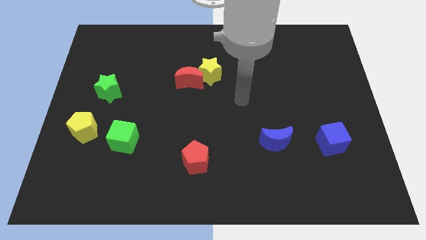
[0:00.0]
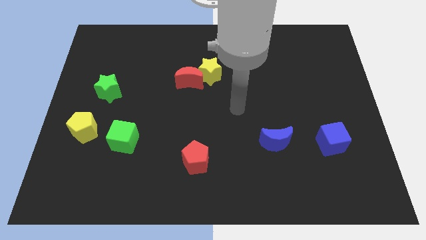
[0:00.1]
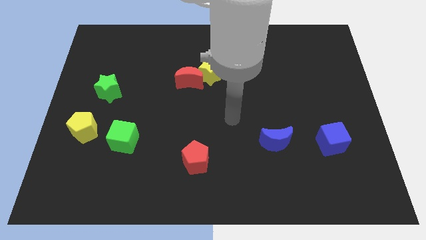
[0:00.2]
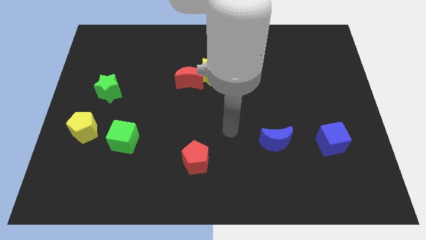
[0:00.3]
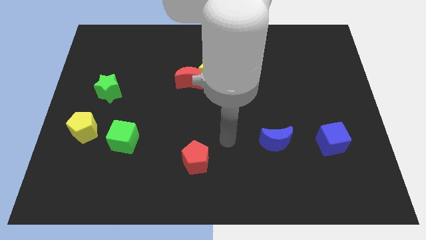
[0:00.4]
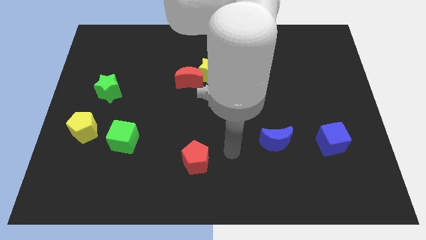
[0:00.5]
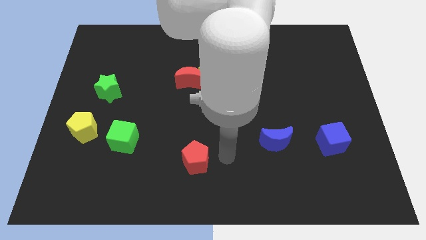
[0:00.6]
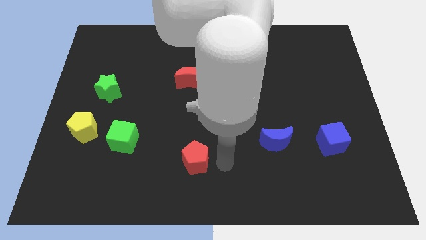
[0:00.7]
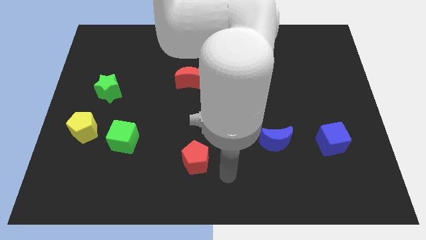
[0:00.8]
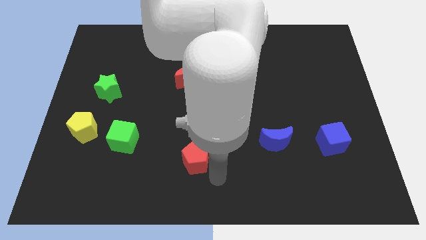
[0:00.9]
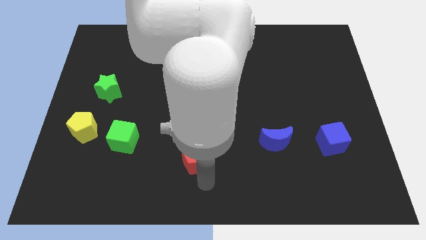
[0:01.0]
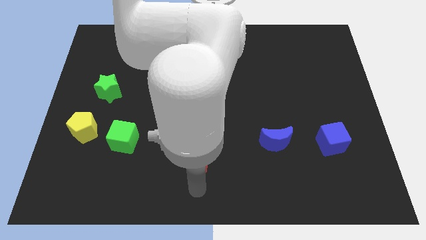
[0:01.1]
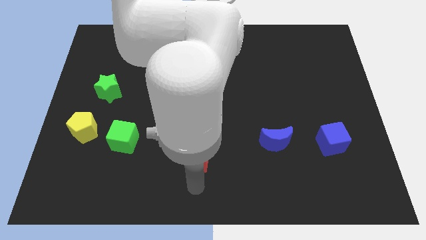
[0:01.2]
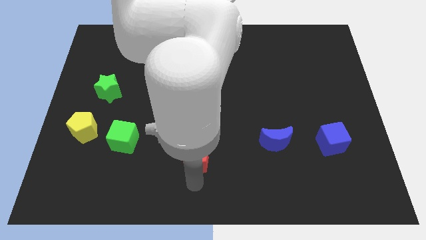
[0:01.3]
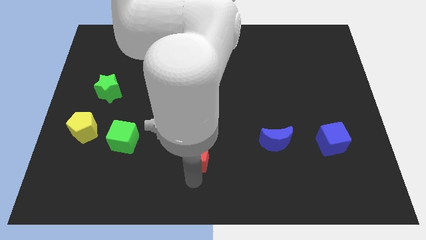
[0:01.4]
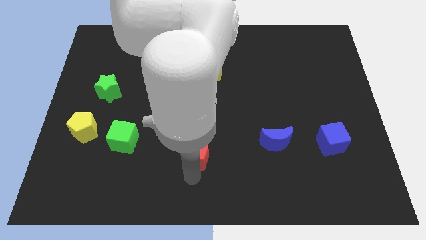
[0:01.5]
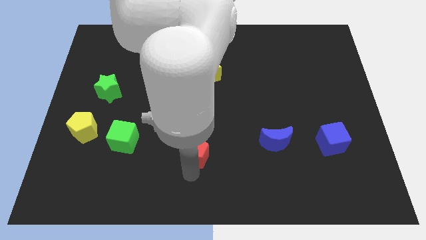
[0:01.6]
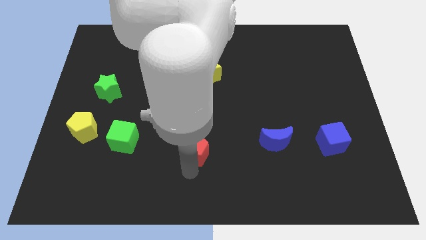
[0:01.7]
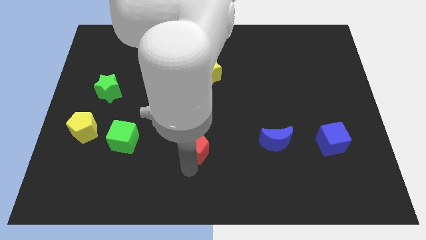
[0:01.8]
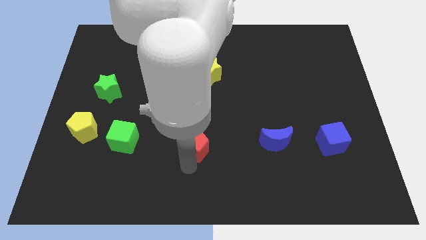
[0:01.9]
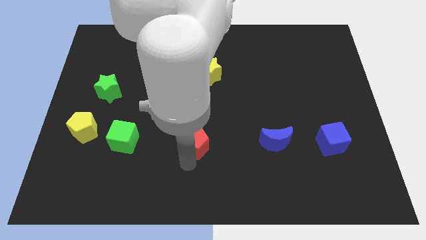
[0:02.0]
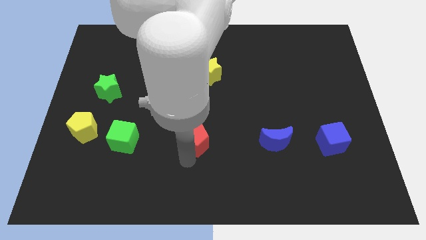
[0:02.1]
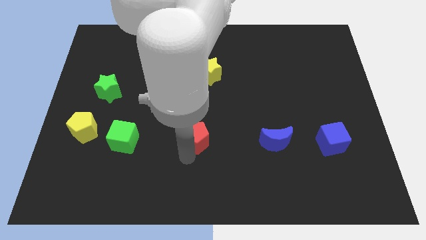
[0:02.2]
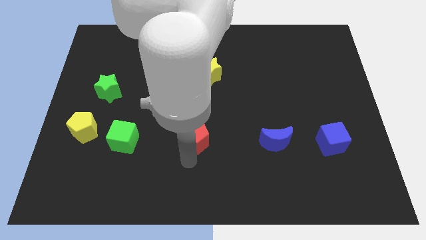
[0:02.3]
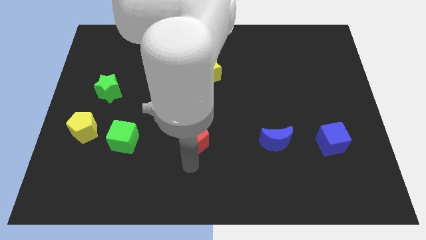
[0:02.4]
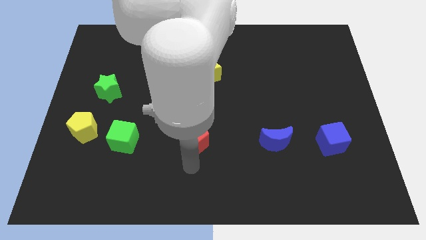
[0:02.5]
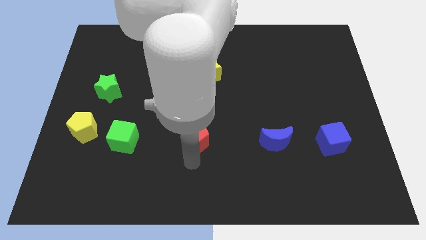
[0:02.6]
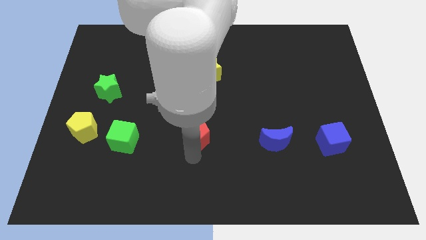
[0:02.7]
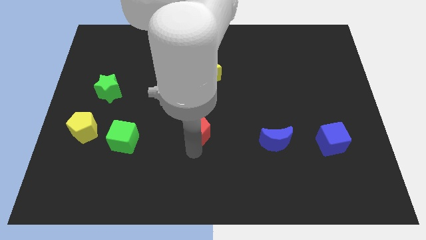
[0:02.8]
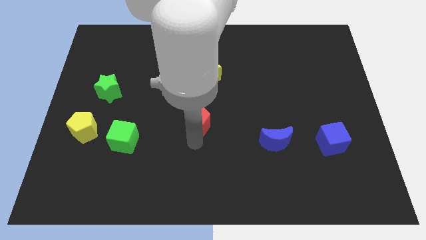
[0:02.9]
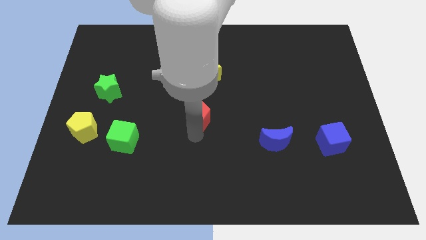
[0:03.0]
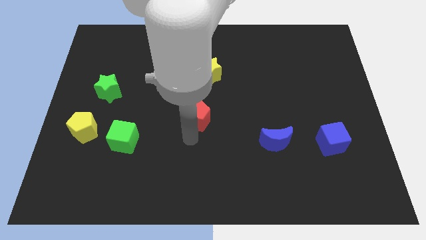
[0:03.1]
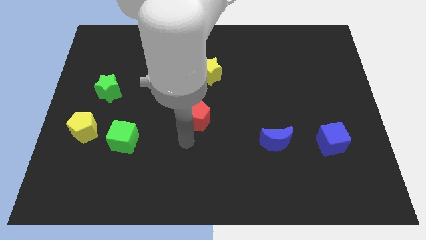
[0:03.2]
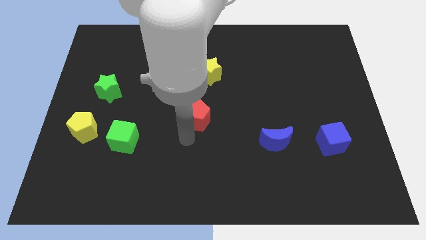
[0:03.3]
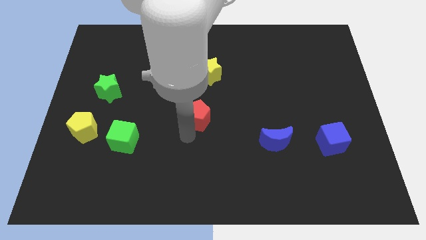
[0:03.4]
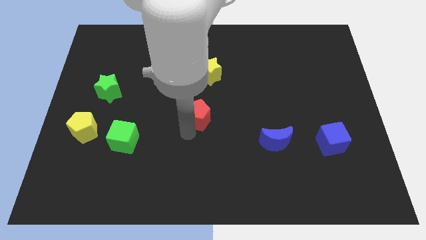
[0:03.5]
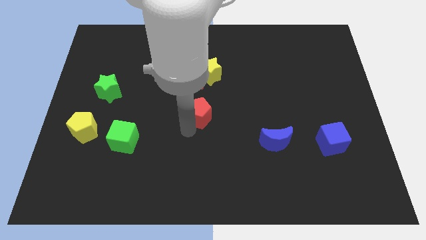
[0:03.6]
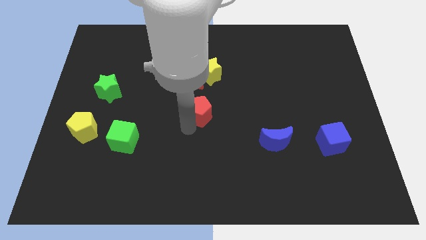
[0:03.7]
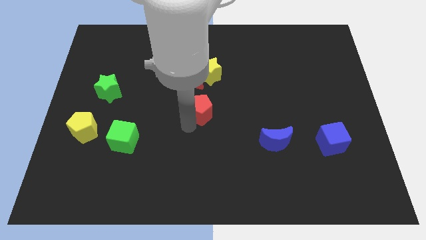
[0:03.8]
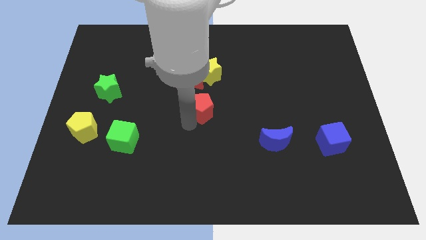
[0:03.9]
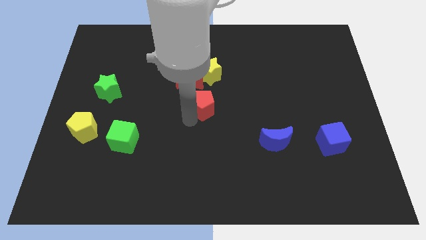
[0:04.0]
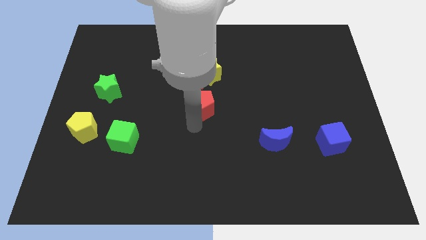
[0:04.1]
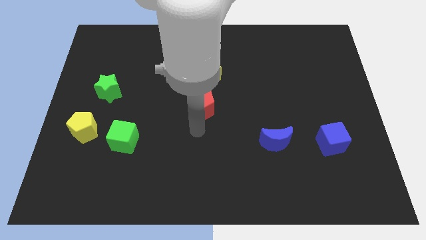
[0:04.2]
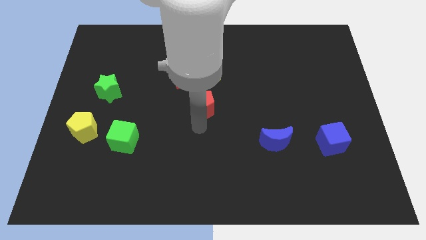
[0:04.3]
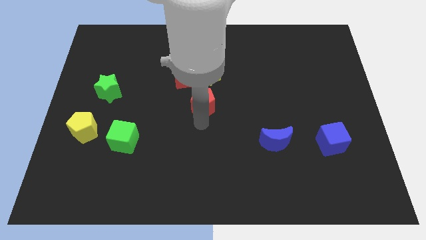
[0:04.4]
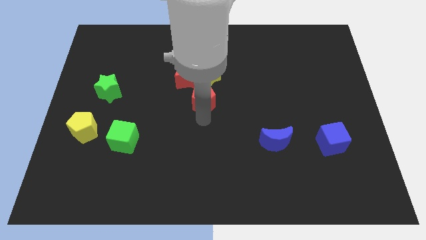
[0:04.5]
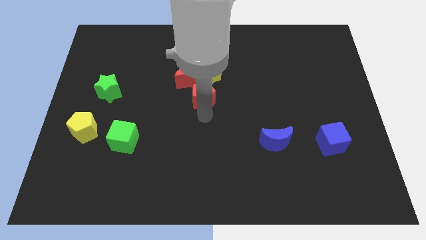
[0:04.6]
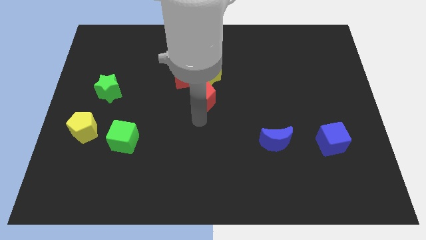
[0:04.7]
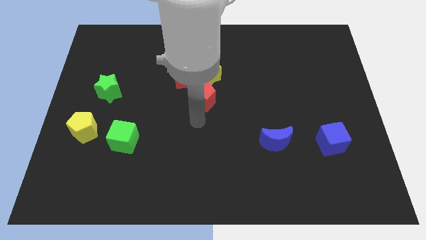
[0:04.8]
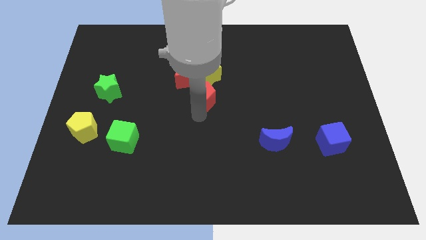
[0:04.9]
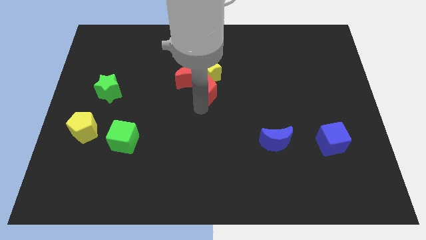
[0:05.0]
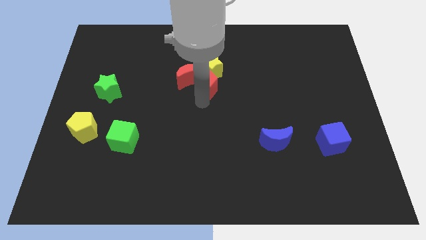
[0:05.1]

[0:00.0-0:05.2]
push the red pentagon next to the yellow star

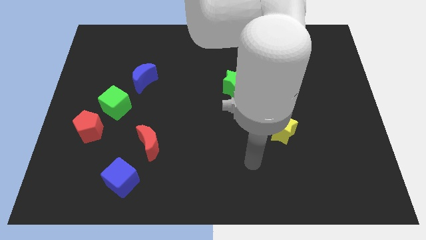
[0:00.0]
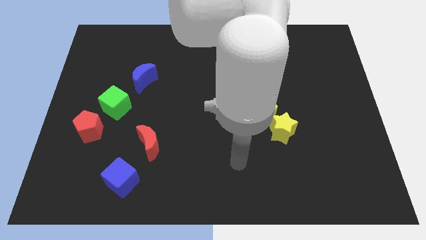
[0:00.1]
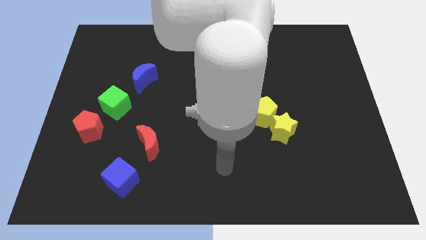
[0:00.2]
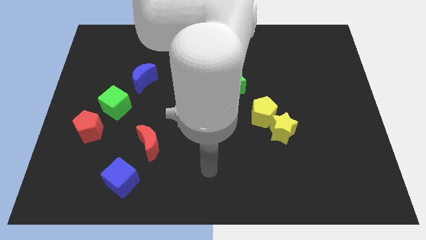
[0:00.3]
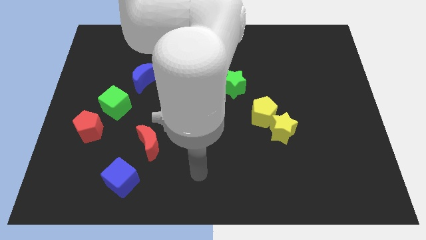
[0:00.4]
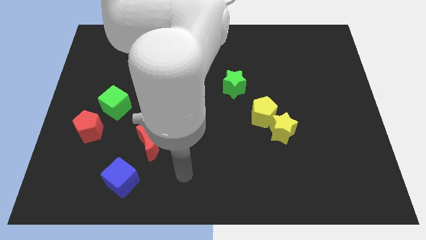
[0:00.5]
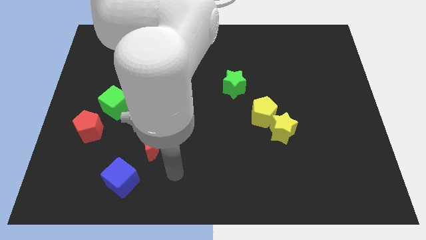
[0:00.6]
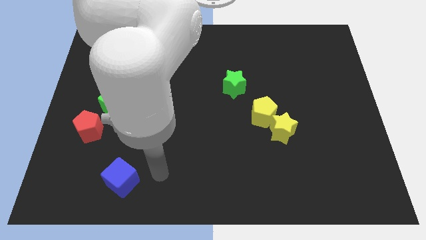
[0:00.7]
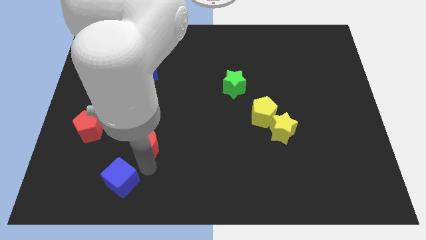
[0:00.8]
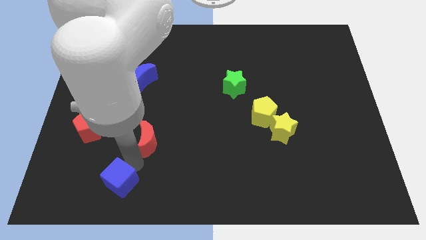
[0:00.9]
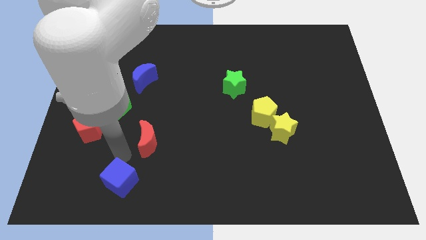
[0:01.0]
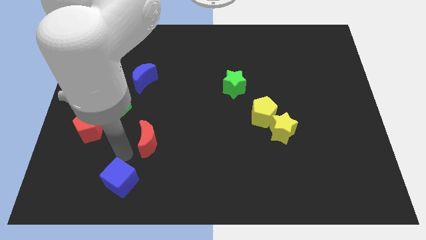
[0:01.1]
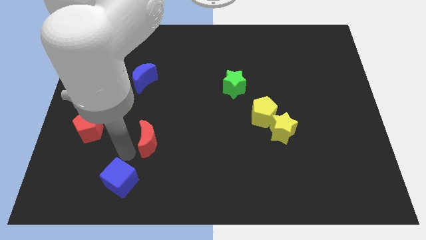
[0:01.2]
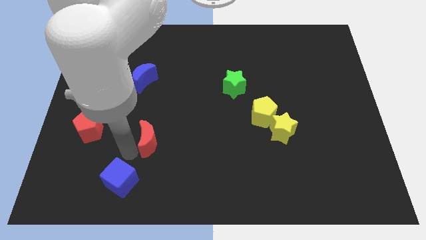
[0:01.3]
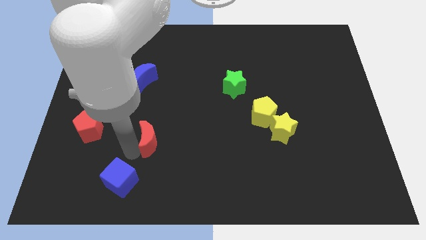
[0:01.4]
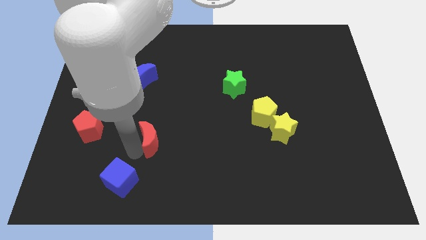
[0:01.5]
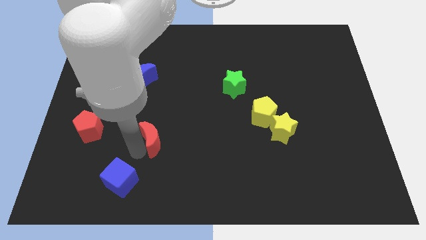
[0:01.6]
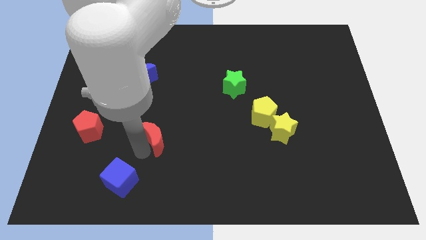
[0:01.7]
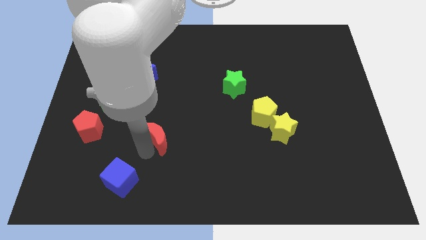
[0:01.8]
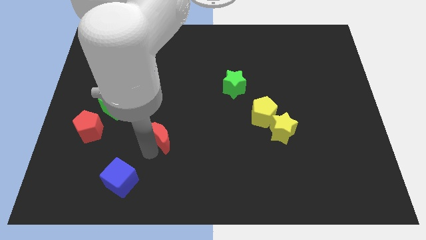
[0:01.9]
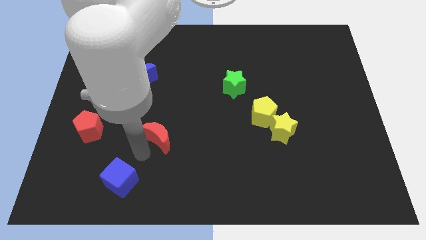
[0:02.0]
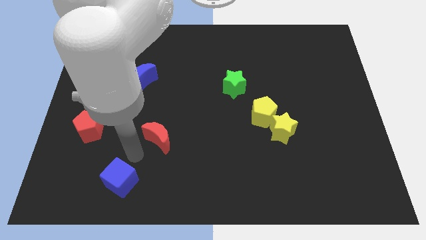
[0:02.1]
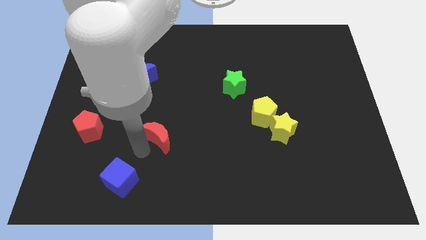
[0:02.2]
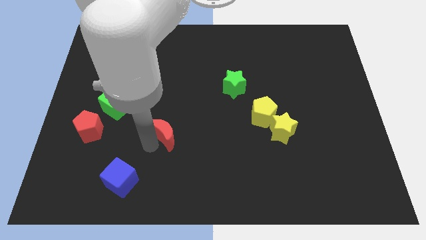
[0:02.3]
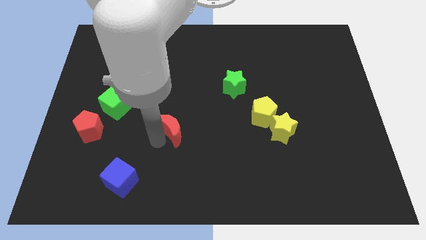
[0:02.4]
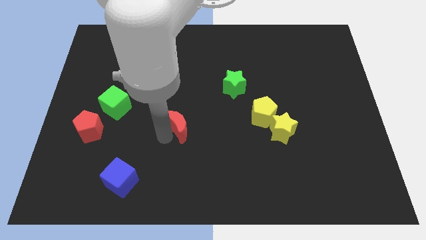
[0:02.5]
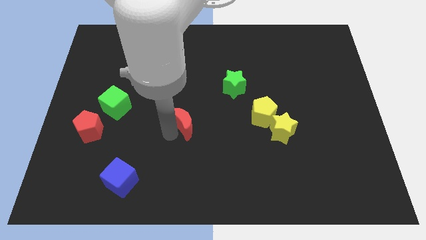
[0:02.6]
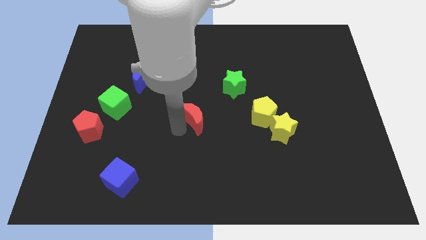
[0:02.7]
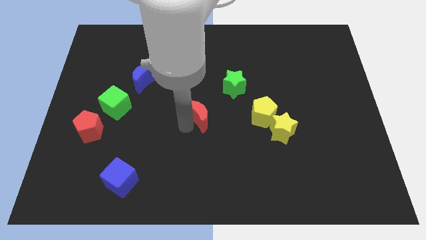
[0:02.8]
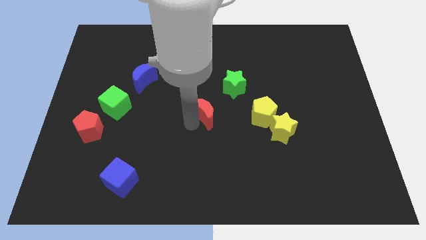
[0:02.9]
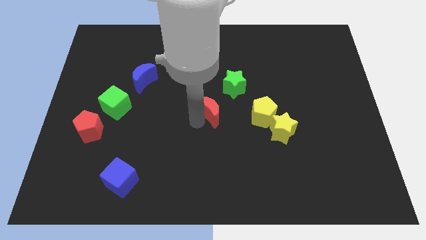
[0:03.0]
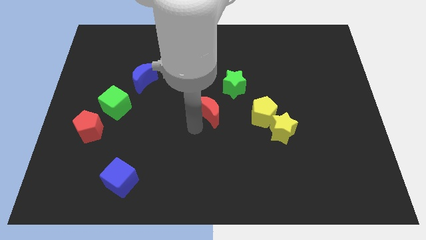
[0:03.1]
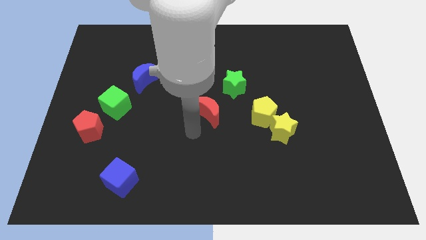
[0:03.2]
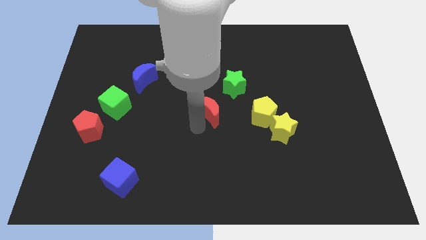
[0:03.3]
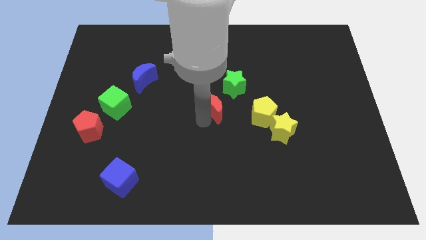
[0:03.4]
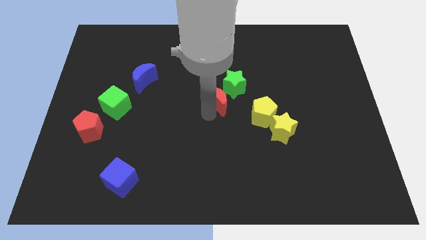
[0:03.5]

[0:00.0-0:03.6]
slide the red moon to the green star
